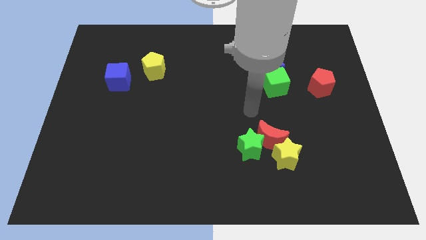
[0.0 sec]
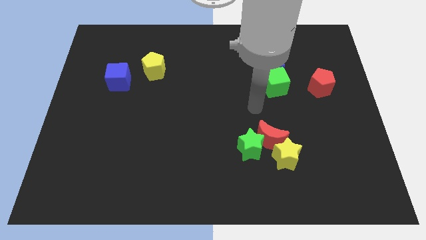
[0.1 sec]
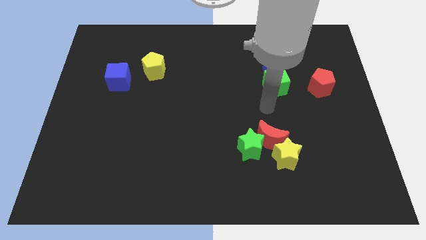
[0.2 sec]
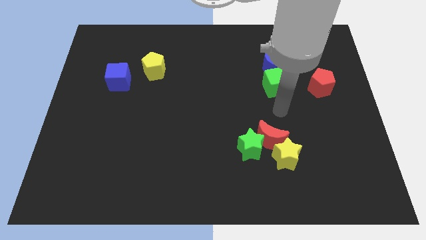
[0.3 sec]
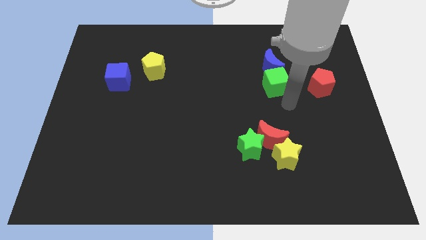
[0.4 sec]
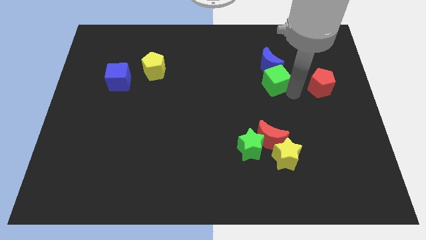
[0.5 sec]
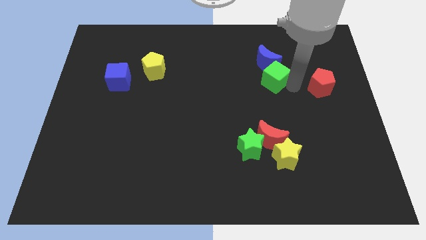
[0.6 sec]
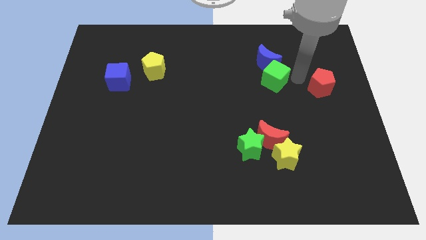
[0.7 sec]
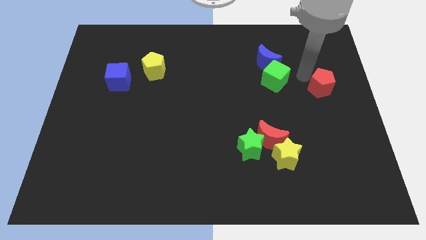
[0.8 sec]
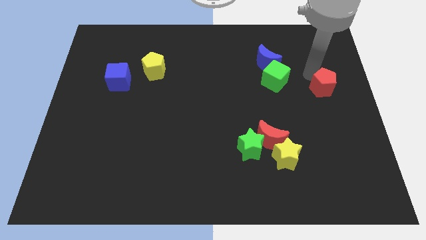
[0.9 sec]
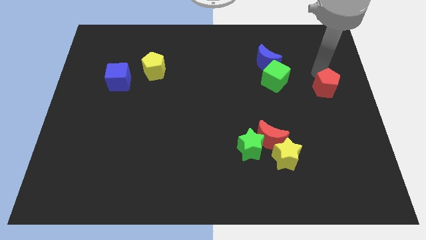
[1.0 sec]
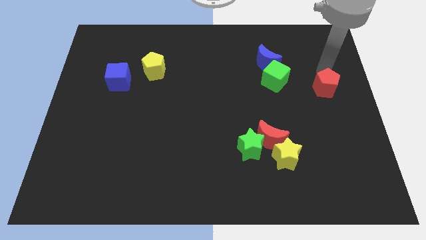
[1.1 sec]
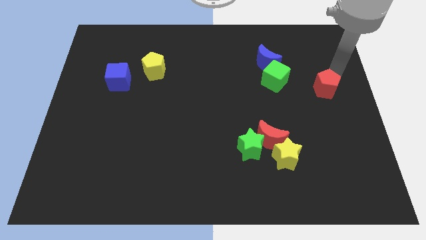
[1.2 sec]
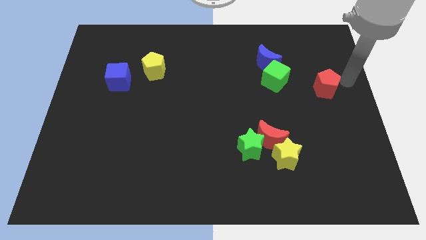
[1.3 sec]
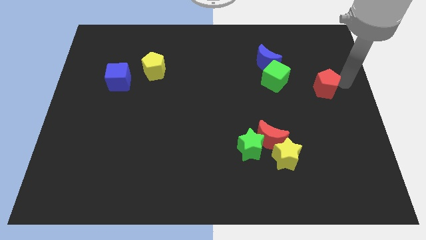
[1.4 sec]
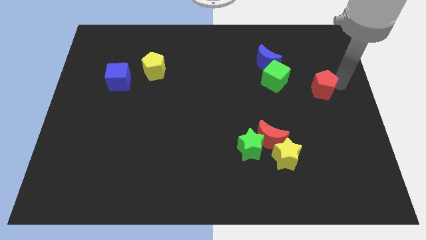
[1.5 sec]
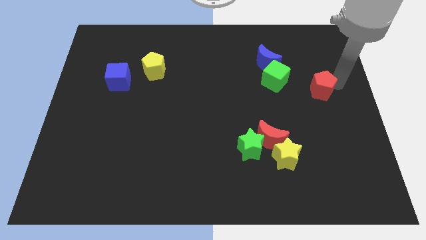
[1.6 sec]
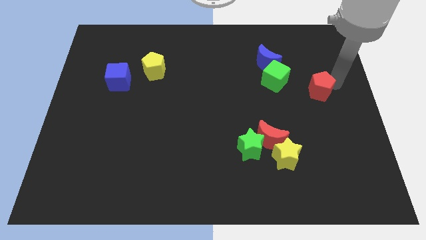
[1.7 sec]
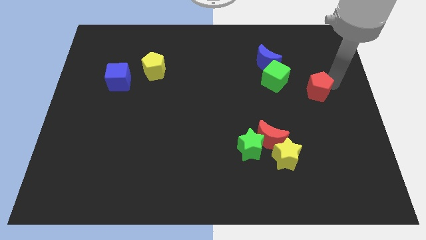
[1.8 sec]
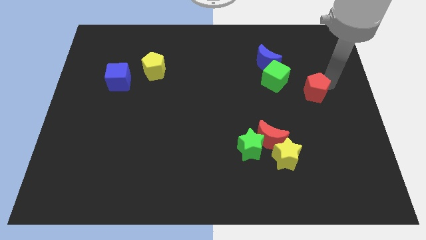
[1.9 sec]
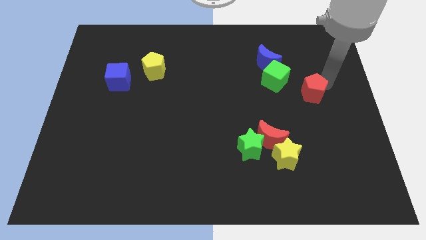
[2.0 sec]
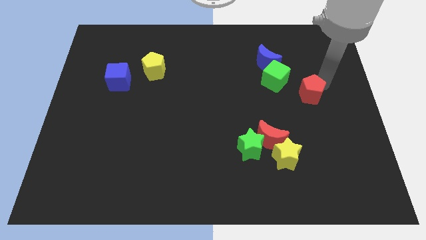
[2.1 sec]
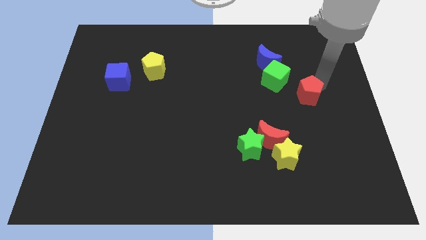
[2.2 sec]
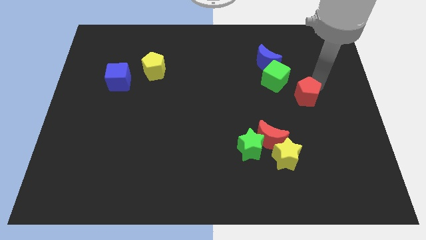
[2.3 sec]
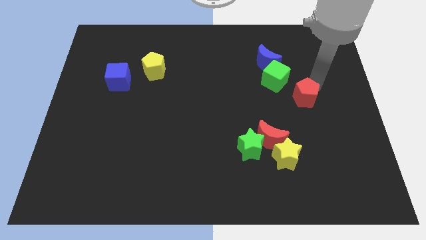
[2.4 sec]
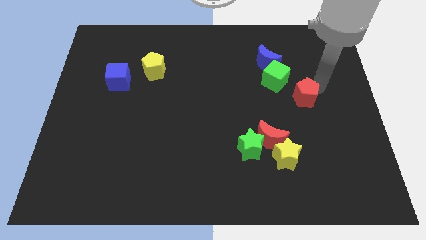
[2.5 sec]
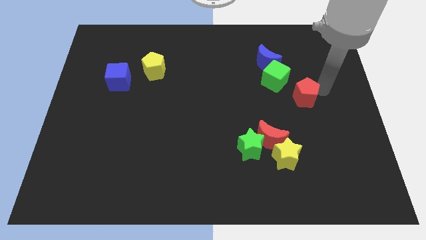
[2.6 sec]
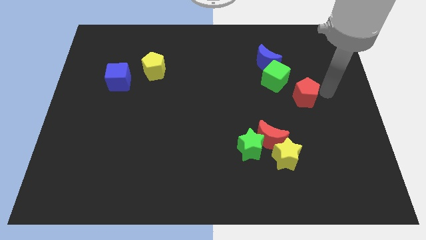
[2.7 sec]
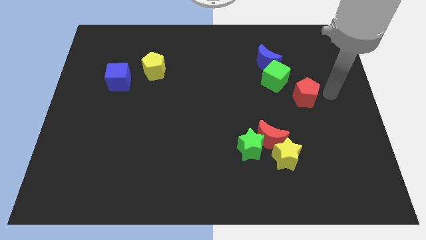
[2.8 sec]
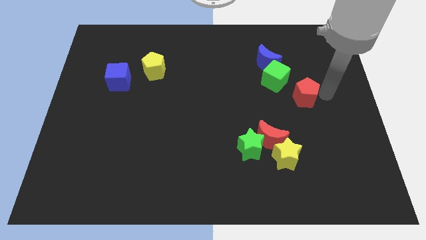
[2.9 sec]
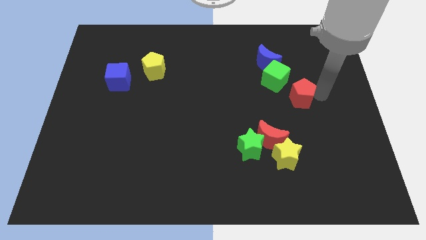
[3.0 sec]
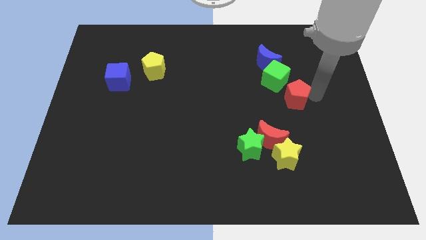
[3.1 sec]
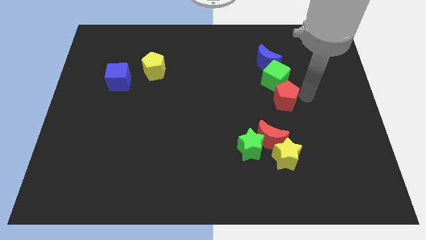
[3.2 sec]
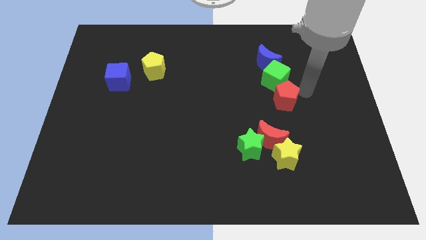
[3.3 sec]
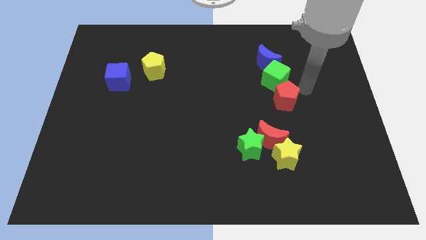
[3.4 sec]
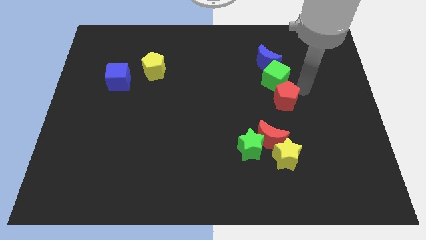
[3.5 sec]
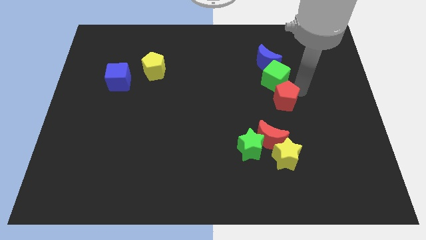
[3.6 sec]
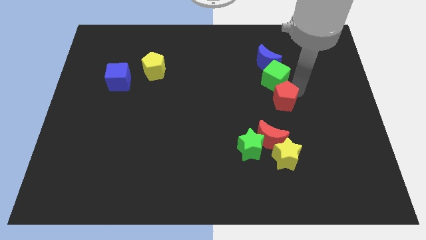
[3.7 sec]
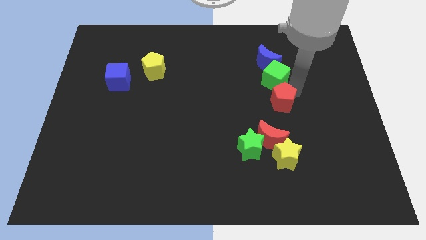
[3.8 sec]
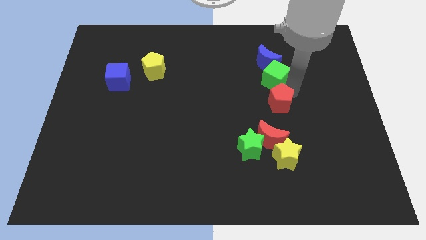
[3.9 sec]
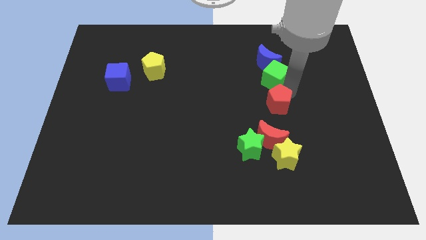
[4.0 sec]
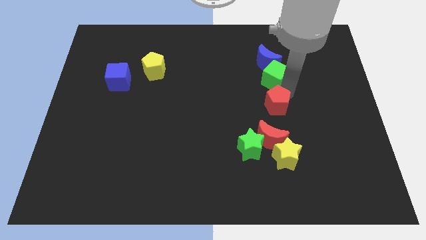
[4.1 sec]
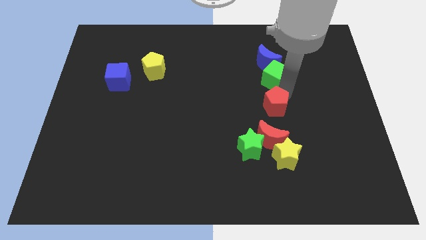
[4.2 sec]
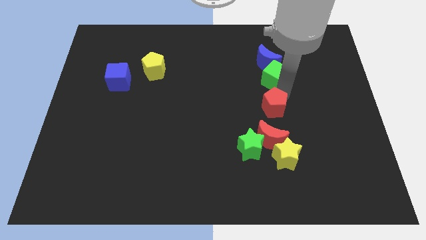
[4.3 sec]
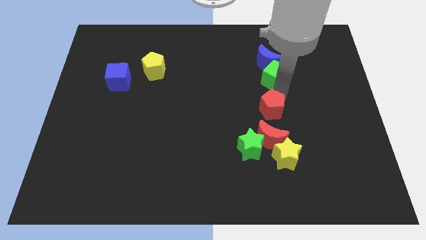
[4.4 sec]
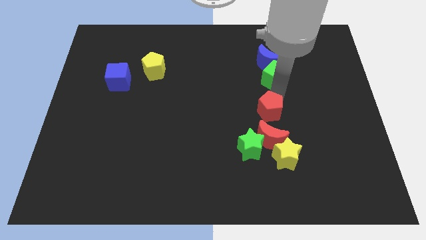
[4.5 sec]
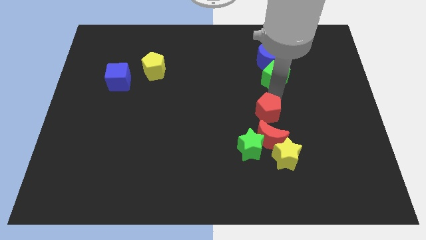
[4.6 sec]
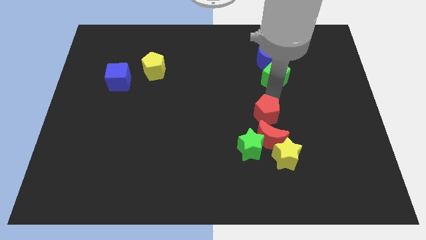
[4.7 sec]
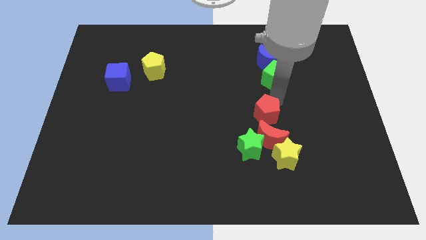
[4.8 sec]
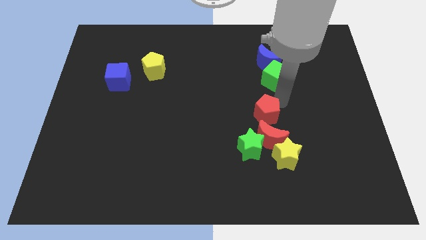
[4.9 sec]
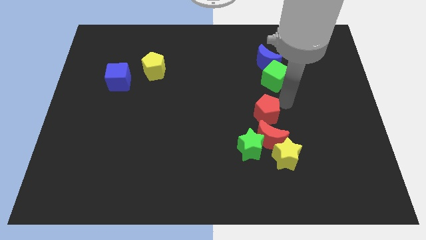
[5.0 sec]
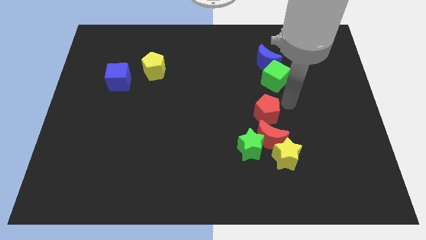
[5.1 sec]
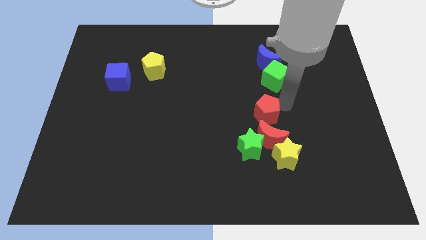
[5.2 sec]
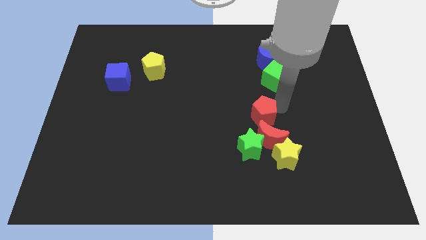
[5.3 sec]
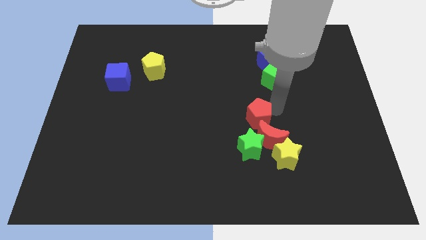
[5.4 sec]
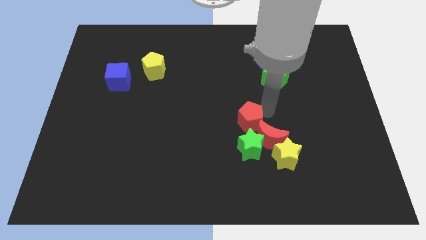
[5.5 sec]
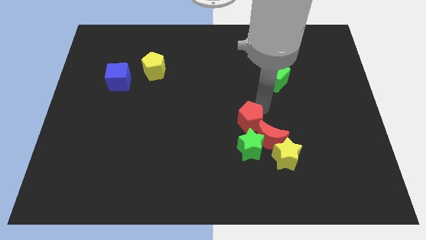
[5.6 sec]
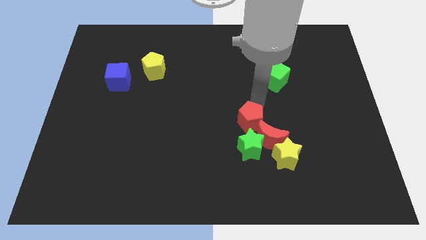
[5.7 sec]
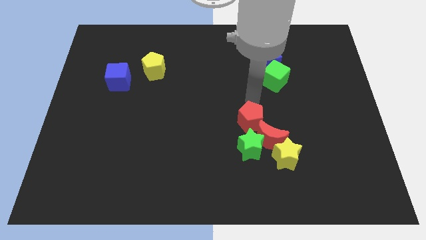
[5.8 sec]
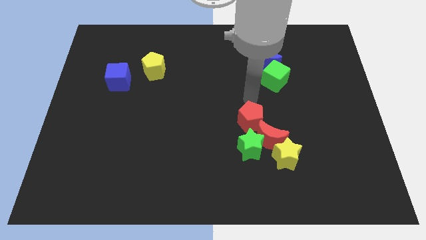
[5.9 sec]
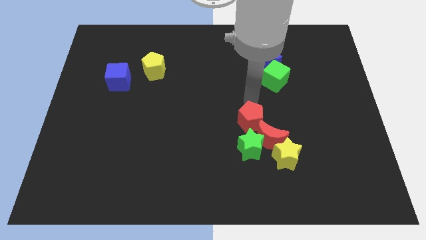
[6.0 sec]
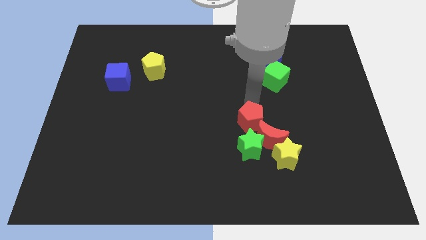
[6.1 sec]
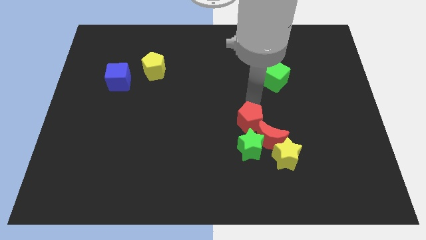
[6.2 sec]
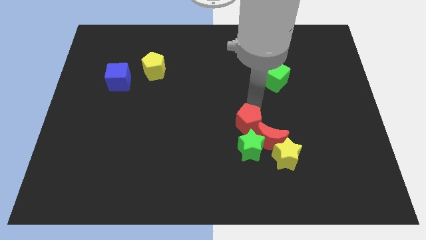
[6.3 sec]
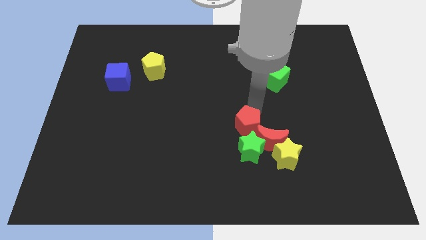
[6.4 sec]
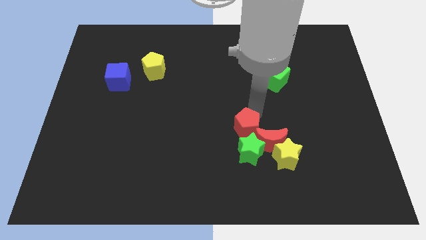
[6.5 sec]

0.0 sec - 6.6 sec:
push the red pentagon close to the green star
